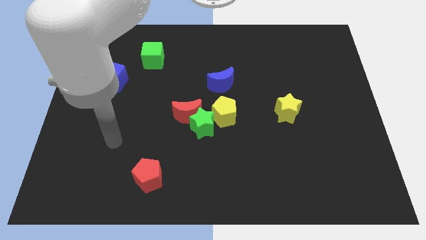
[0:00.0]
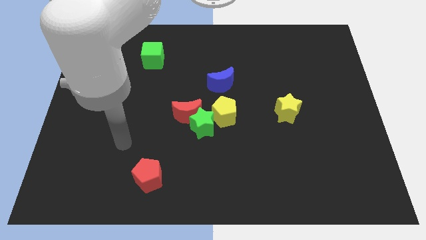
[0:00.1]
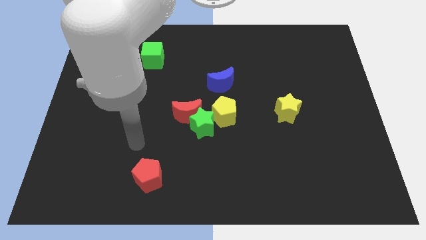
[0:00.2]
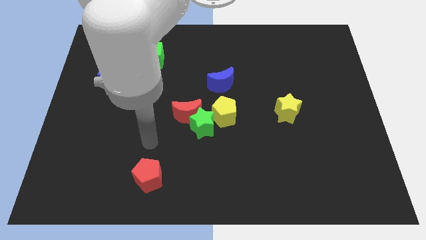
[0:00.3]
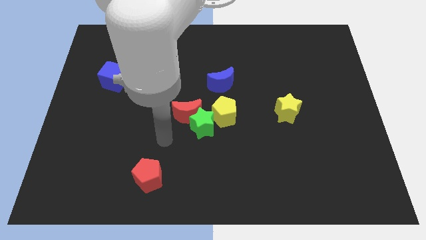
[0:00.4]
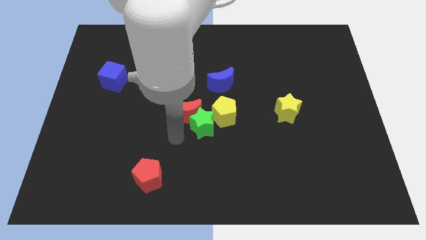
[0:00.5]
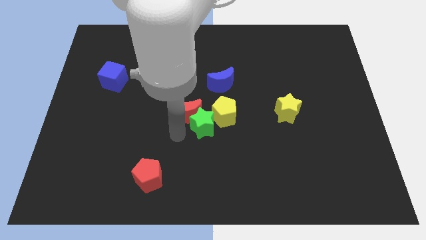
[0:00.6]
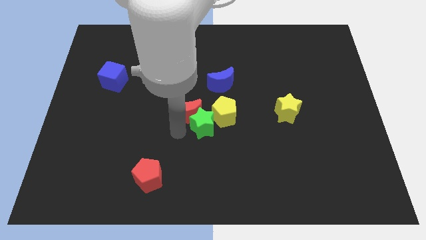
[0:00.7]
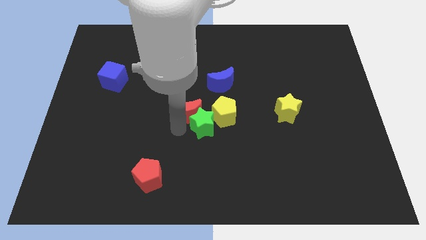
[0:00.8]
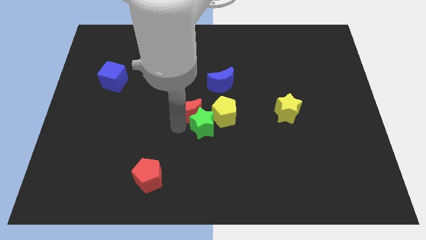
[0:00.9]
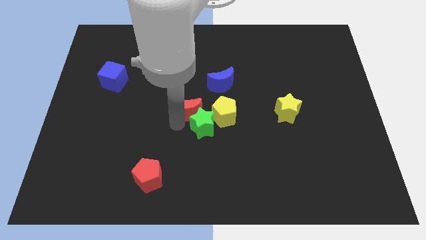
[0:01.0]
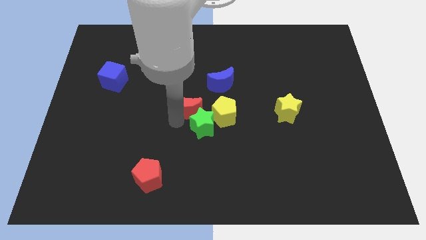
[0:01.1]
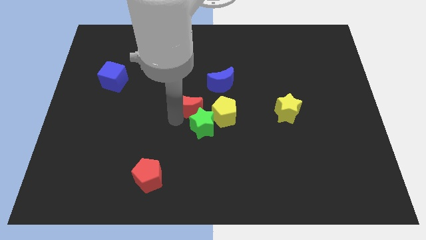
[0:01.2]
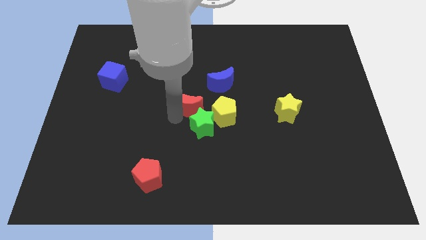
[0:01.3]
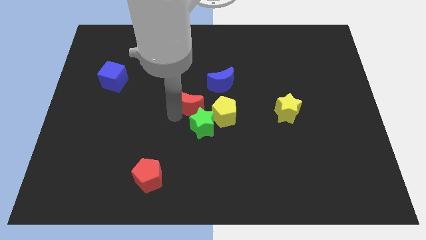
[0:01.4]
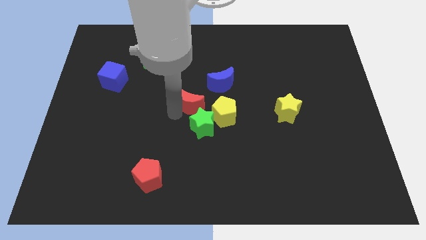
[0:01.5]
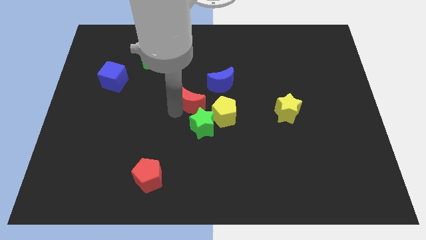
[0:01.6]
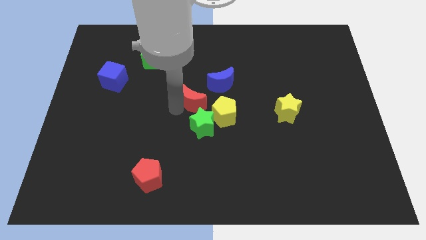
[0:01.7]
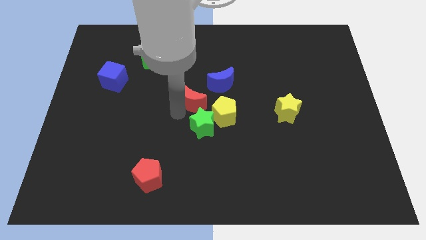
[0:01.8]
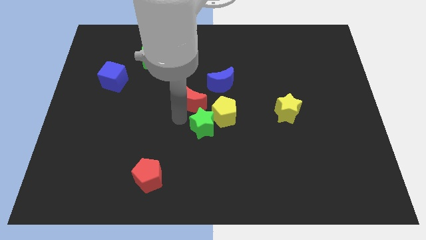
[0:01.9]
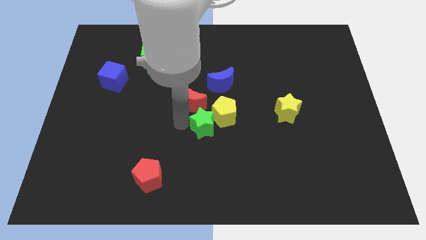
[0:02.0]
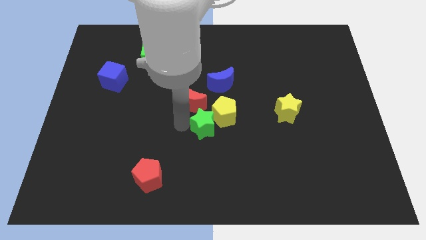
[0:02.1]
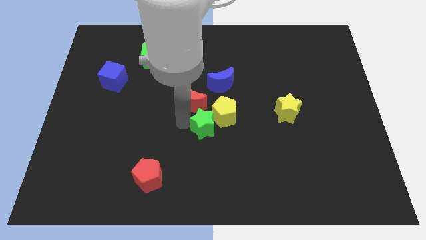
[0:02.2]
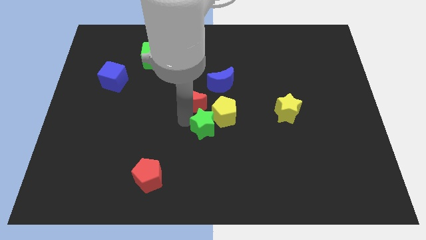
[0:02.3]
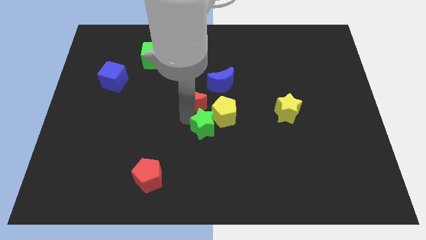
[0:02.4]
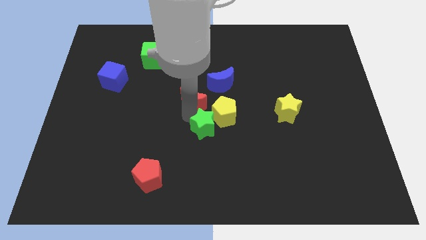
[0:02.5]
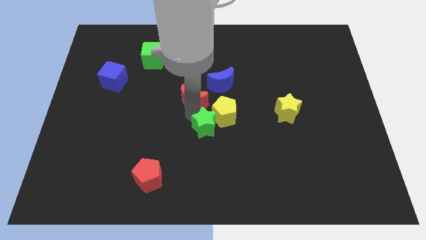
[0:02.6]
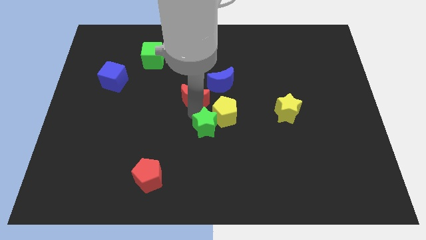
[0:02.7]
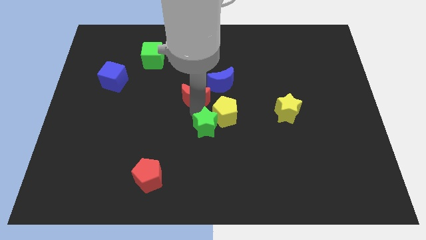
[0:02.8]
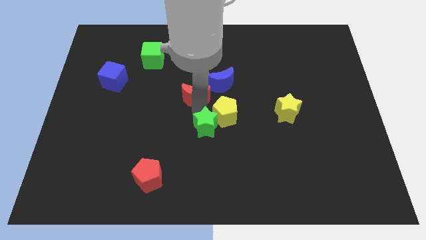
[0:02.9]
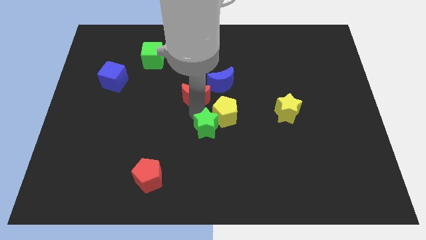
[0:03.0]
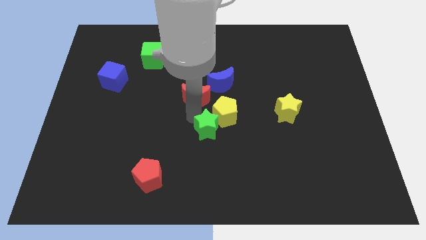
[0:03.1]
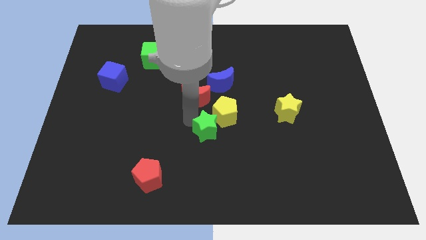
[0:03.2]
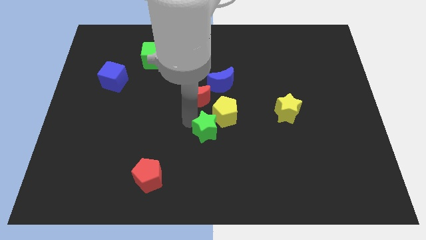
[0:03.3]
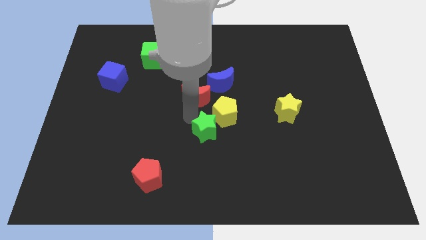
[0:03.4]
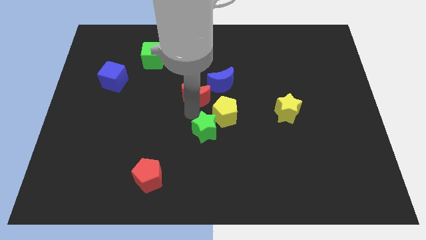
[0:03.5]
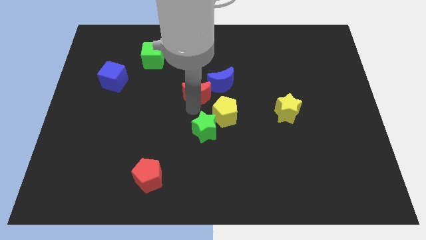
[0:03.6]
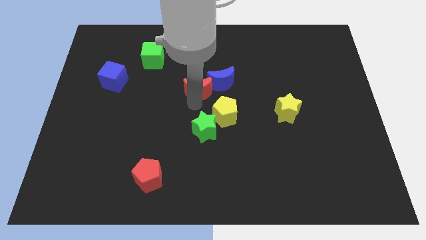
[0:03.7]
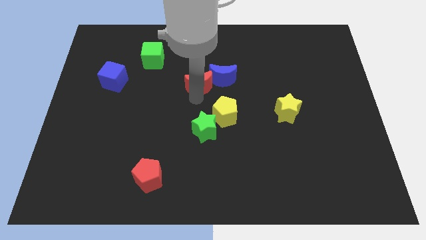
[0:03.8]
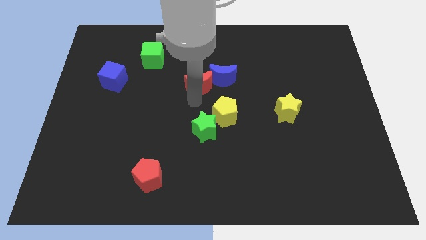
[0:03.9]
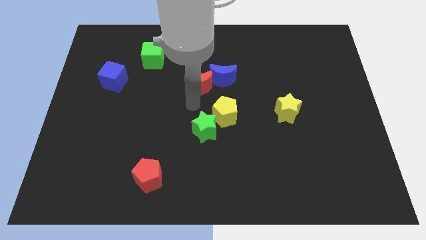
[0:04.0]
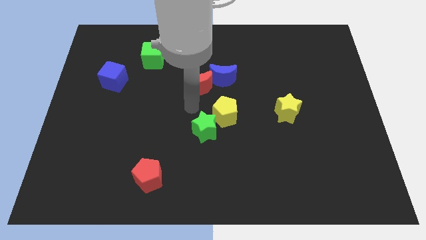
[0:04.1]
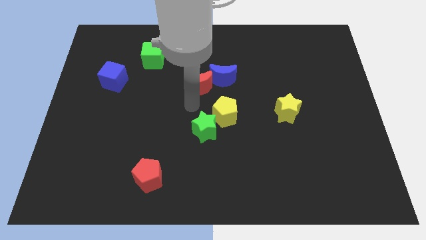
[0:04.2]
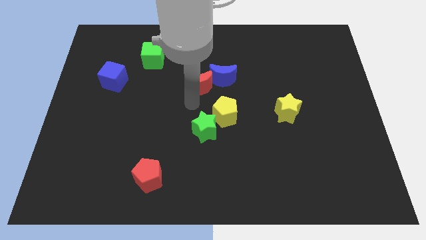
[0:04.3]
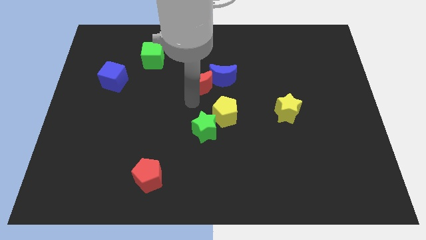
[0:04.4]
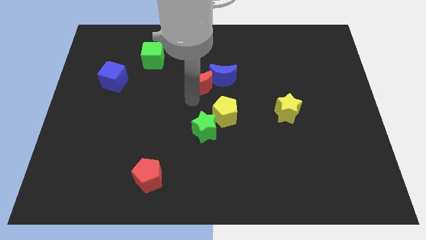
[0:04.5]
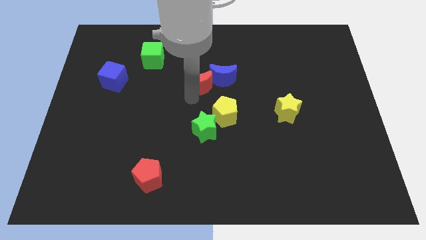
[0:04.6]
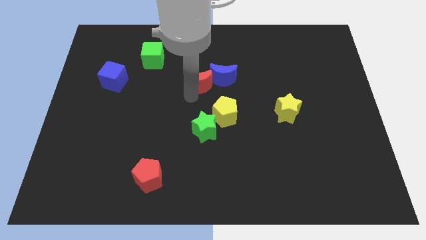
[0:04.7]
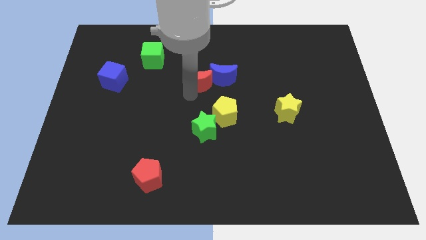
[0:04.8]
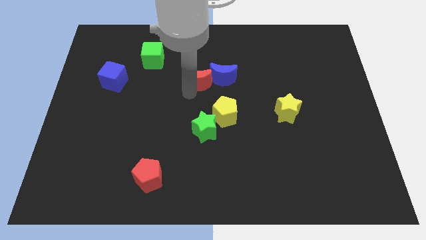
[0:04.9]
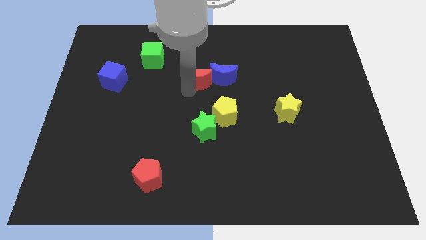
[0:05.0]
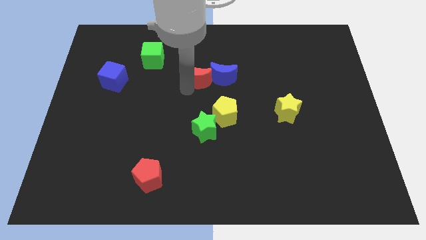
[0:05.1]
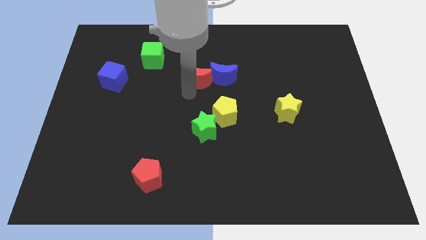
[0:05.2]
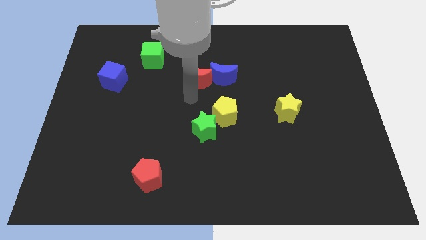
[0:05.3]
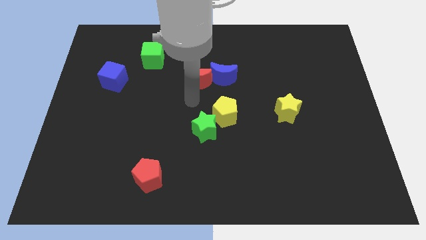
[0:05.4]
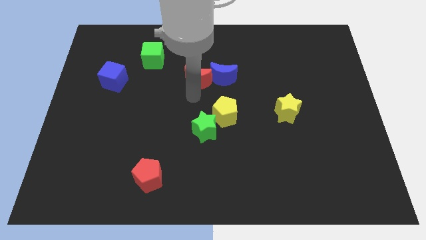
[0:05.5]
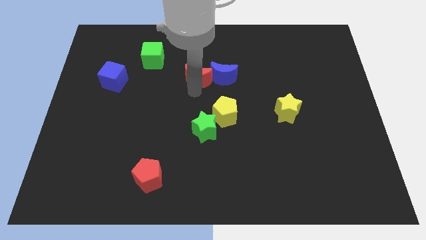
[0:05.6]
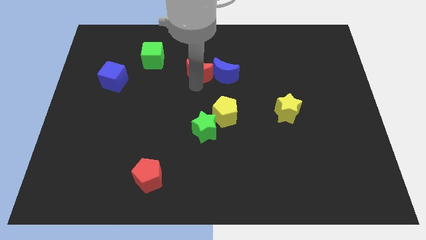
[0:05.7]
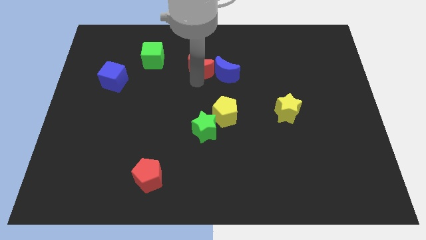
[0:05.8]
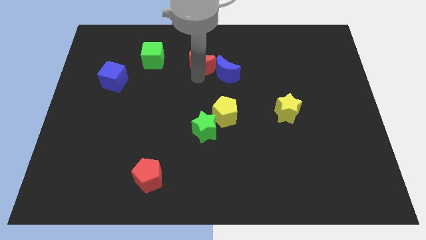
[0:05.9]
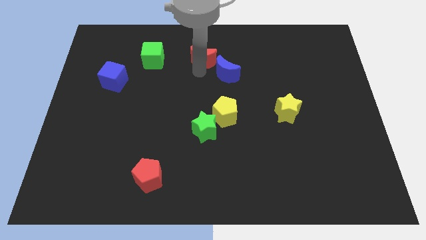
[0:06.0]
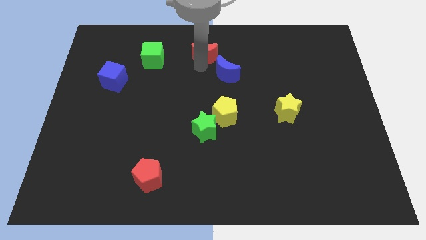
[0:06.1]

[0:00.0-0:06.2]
push the red moon to the top
